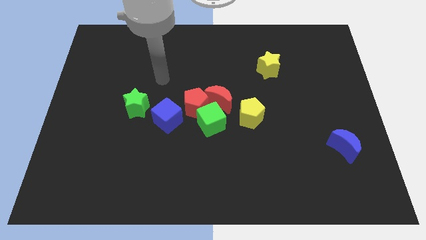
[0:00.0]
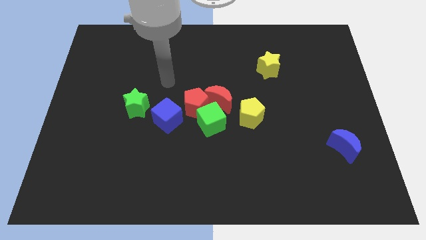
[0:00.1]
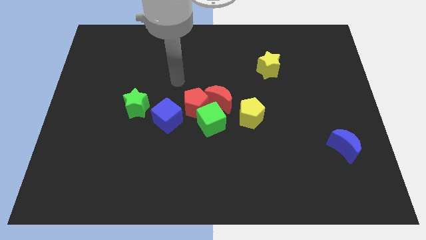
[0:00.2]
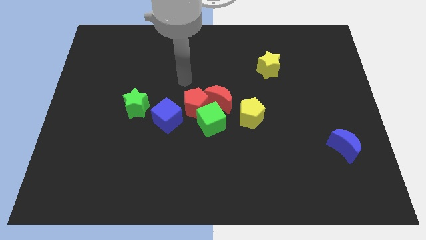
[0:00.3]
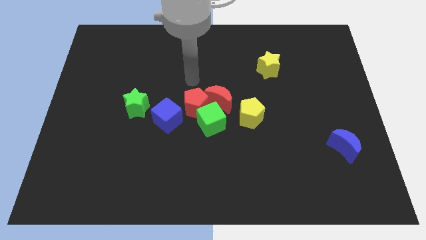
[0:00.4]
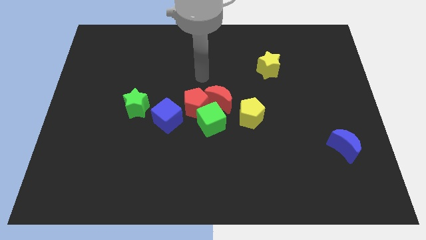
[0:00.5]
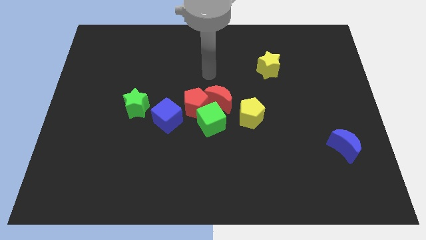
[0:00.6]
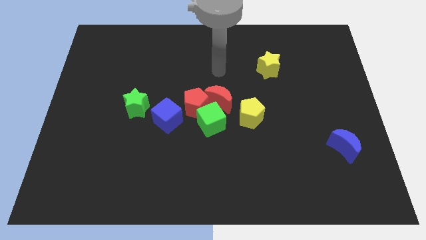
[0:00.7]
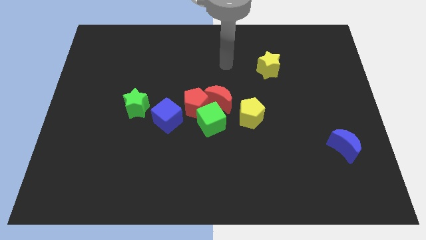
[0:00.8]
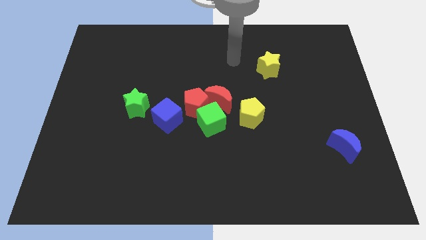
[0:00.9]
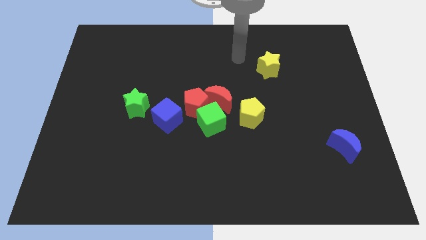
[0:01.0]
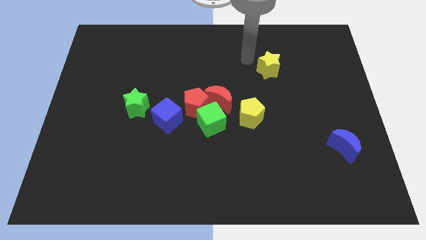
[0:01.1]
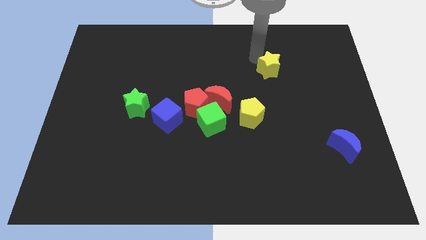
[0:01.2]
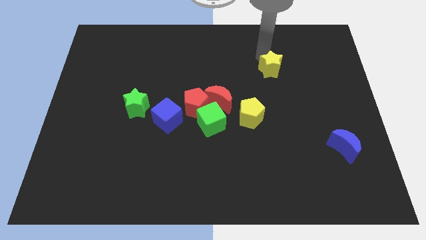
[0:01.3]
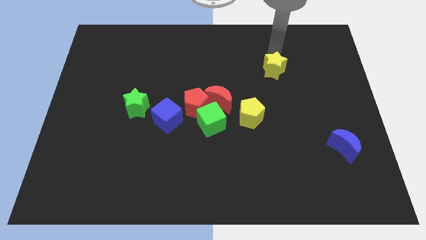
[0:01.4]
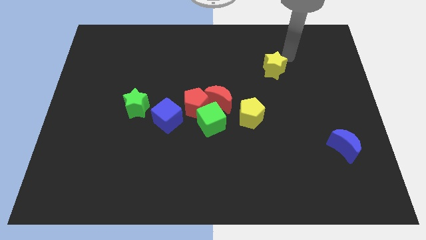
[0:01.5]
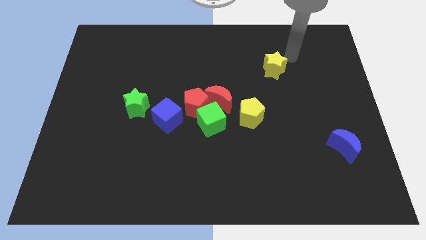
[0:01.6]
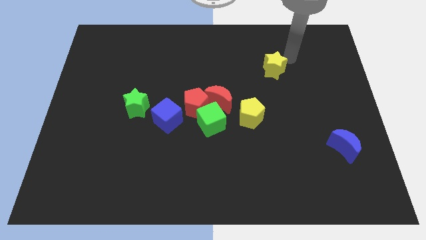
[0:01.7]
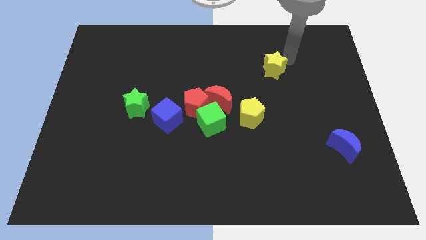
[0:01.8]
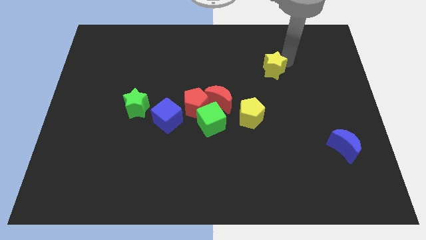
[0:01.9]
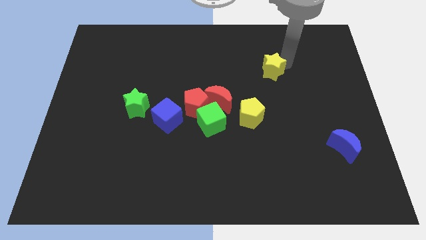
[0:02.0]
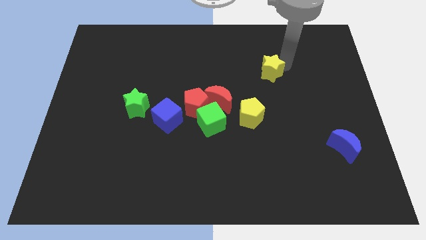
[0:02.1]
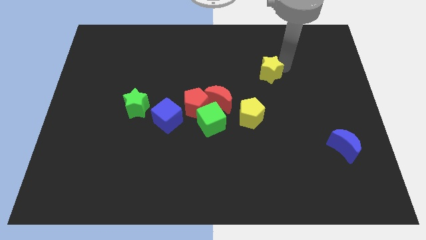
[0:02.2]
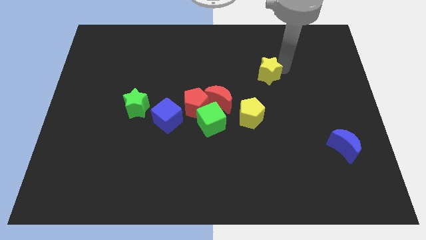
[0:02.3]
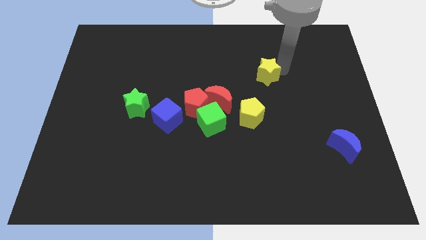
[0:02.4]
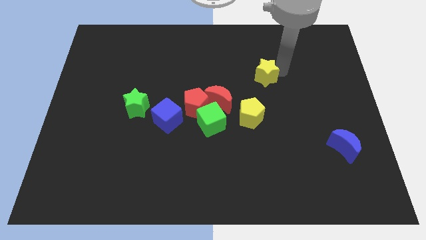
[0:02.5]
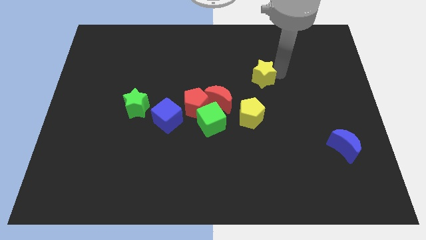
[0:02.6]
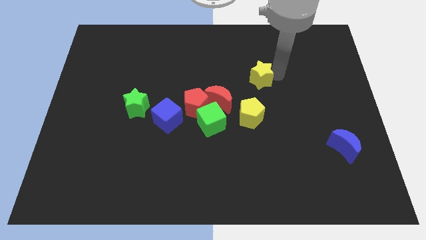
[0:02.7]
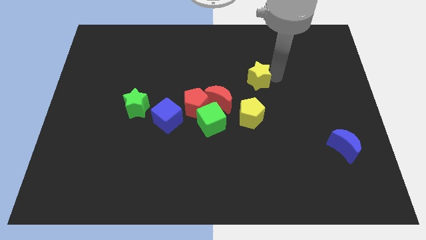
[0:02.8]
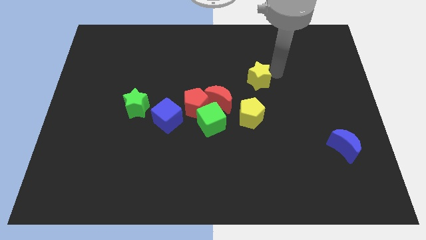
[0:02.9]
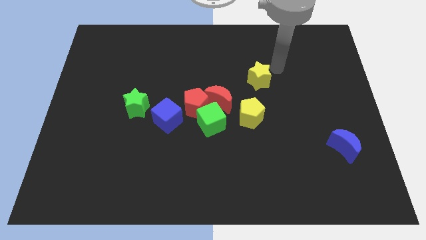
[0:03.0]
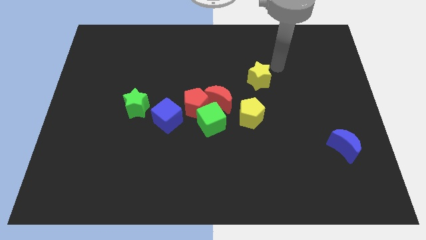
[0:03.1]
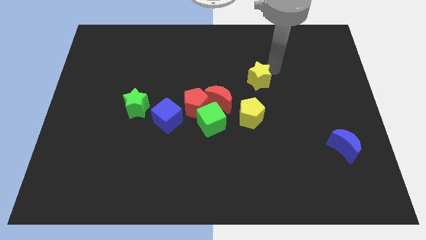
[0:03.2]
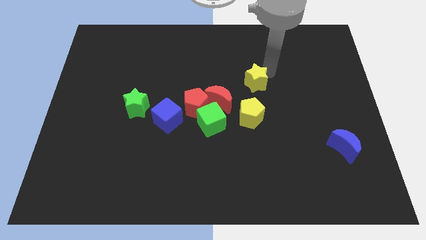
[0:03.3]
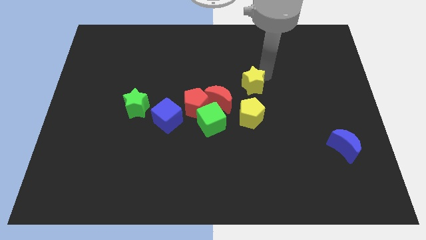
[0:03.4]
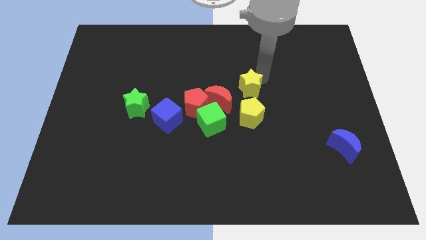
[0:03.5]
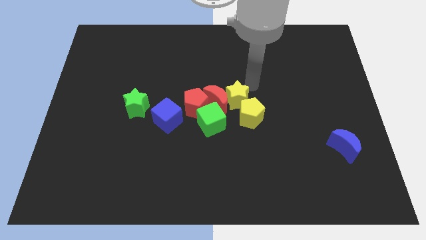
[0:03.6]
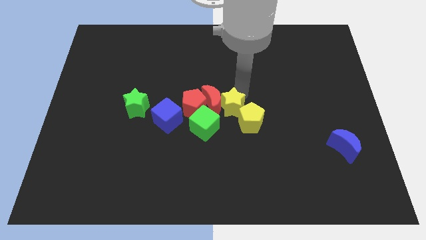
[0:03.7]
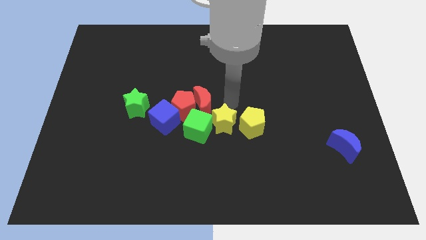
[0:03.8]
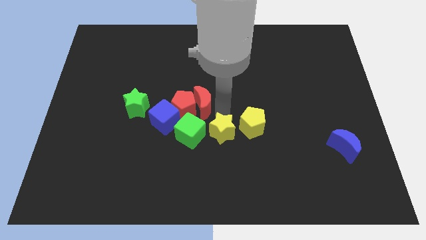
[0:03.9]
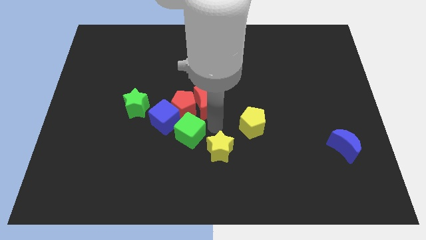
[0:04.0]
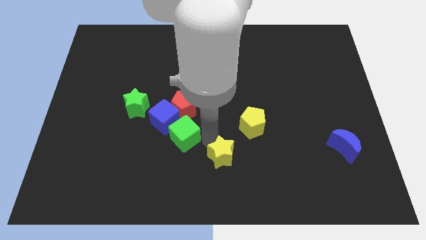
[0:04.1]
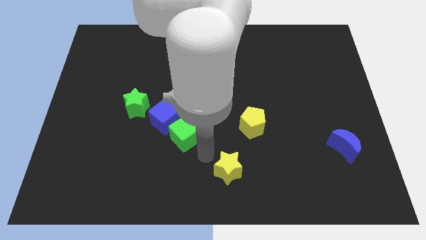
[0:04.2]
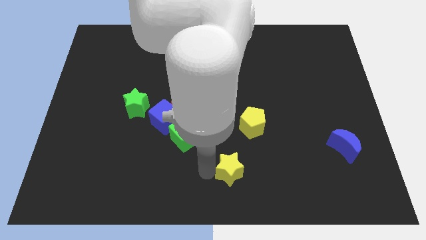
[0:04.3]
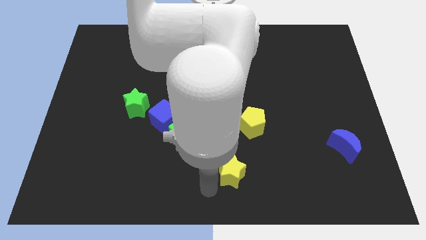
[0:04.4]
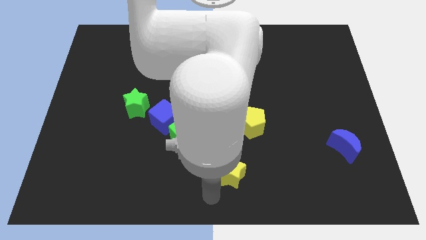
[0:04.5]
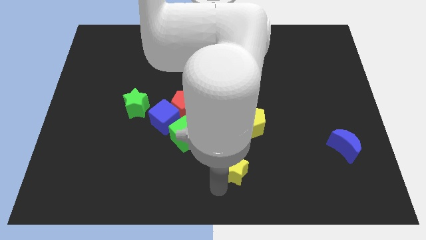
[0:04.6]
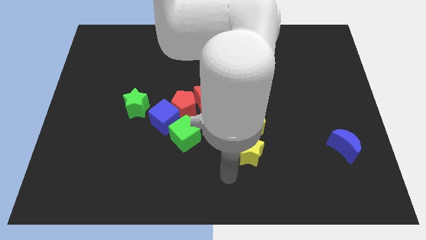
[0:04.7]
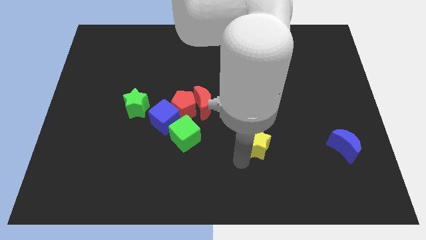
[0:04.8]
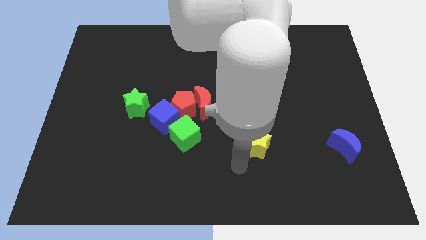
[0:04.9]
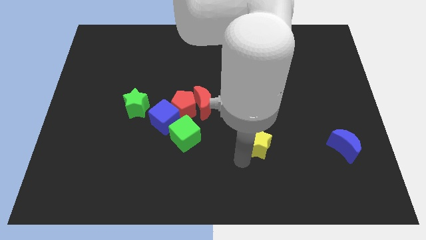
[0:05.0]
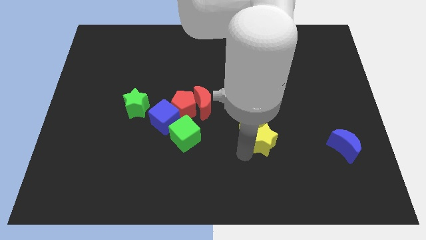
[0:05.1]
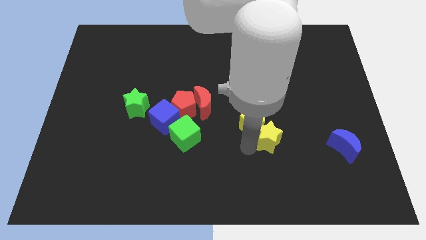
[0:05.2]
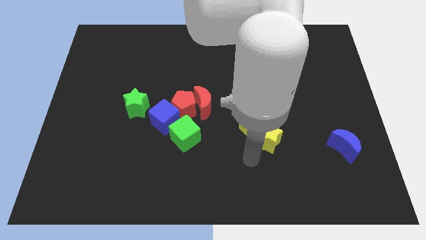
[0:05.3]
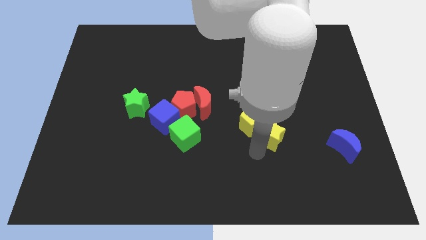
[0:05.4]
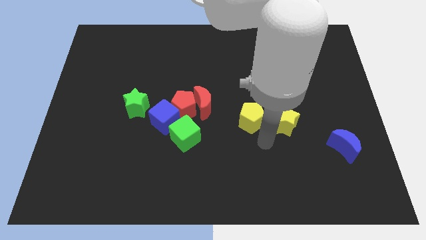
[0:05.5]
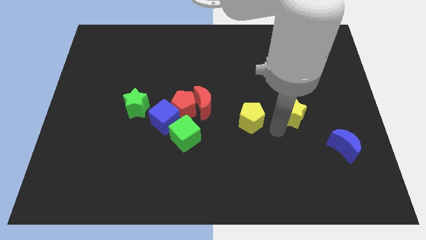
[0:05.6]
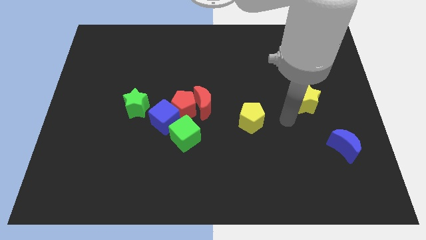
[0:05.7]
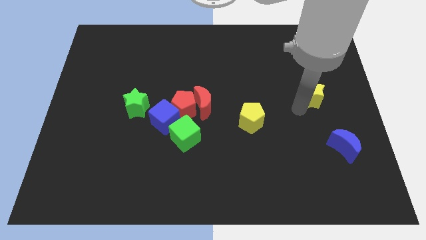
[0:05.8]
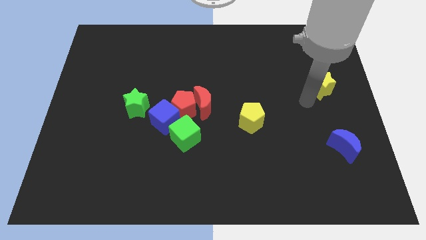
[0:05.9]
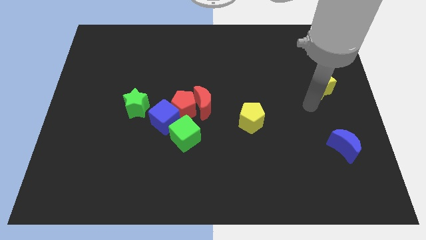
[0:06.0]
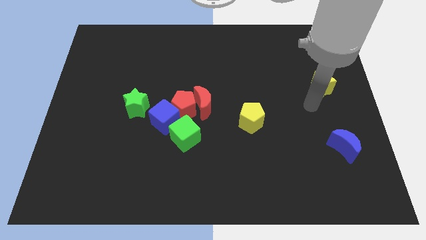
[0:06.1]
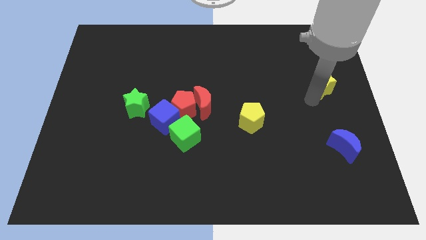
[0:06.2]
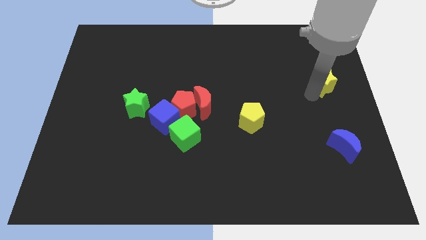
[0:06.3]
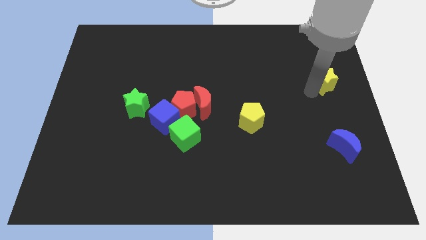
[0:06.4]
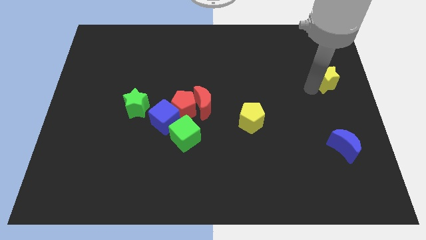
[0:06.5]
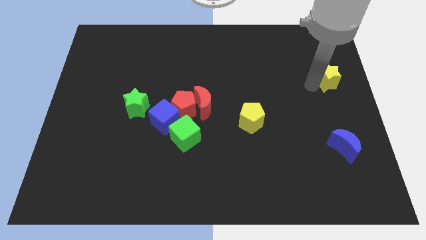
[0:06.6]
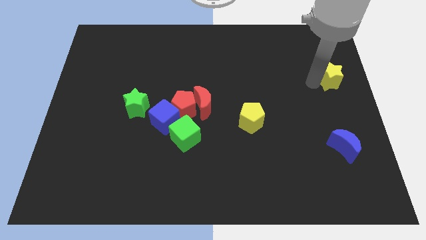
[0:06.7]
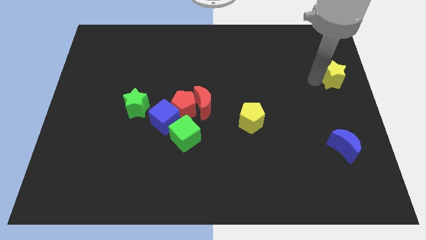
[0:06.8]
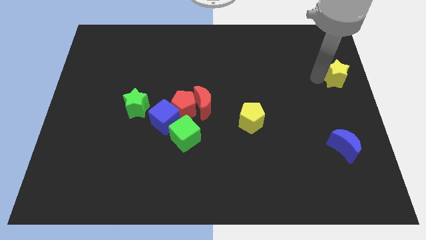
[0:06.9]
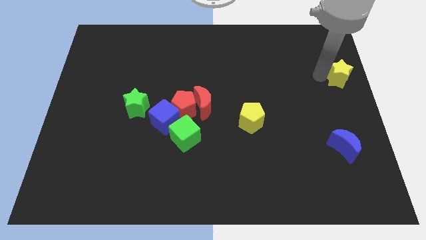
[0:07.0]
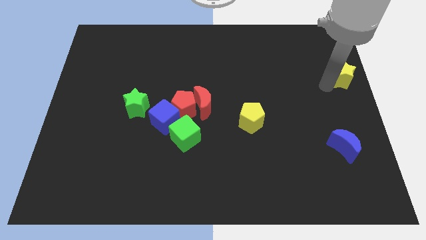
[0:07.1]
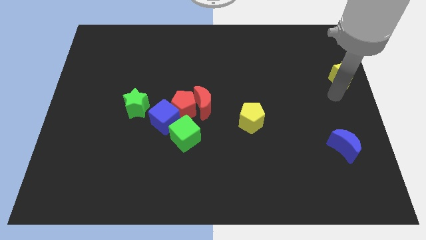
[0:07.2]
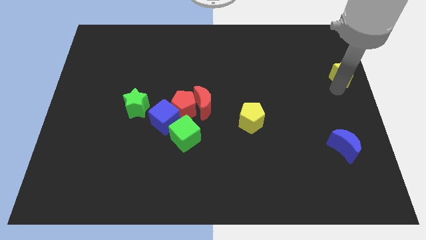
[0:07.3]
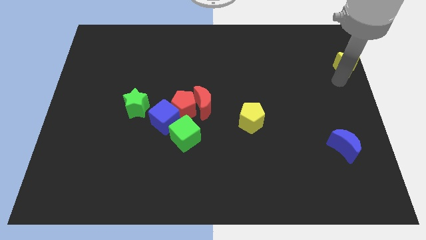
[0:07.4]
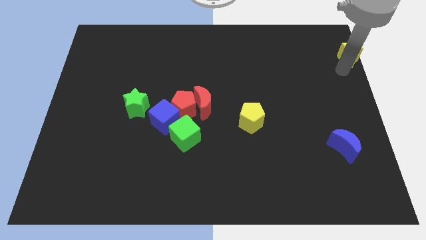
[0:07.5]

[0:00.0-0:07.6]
push the yellow star to the top right of the board
